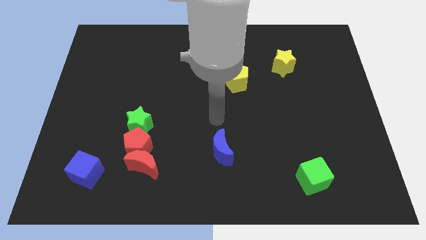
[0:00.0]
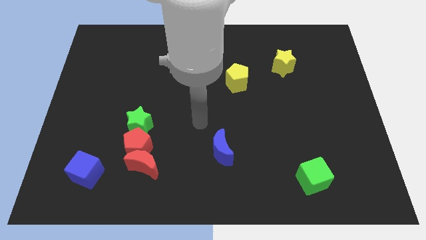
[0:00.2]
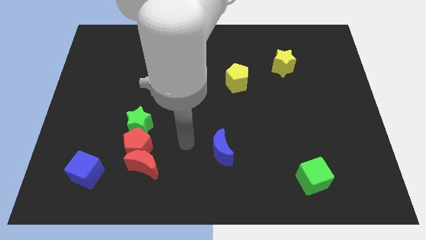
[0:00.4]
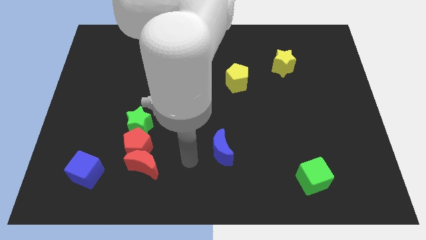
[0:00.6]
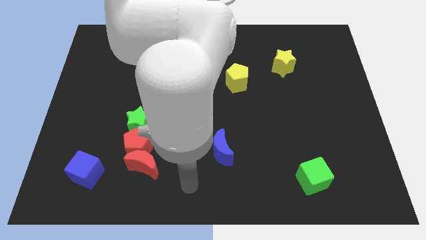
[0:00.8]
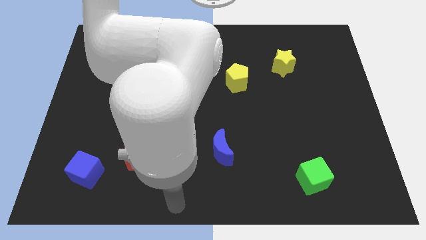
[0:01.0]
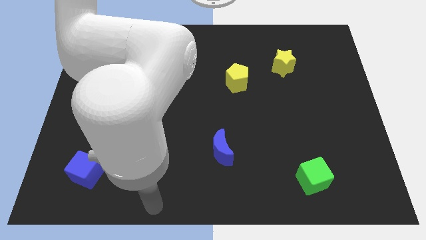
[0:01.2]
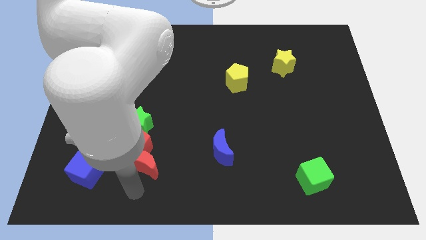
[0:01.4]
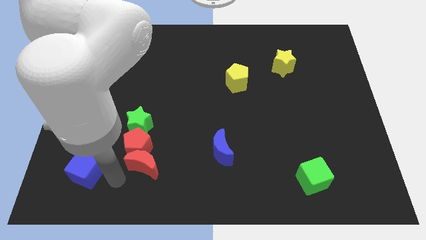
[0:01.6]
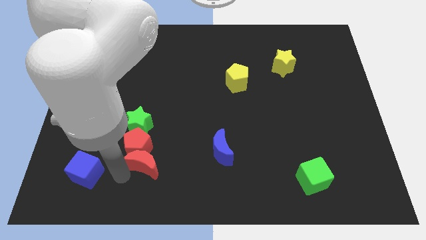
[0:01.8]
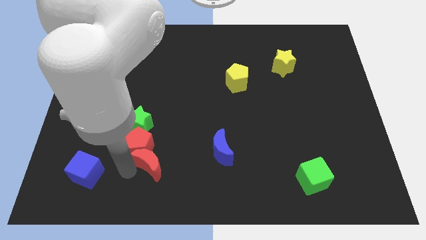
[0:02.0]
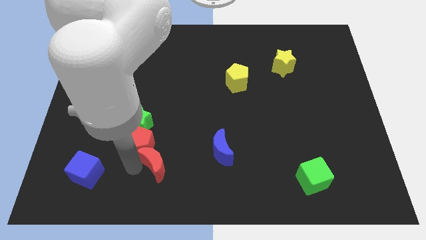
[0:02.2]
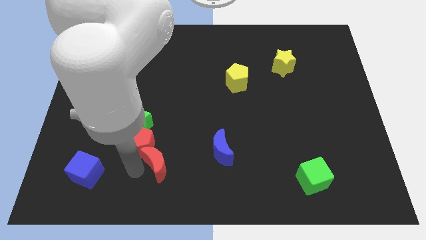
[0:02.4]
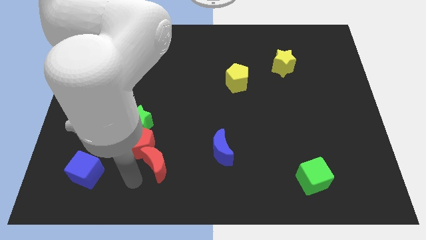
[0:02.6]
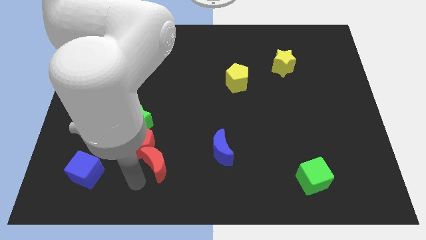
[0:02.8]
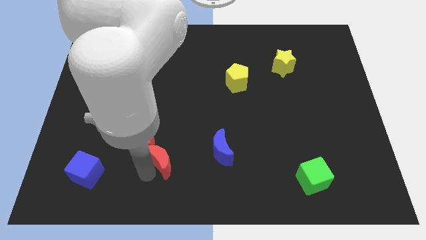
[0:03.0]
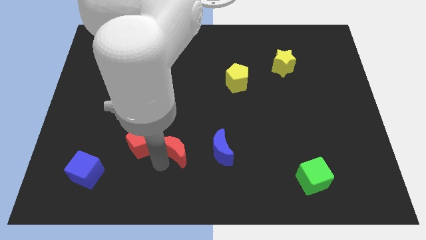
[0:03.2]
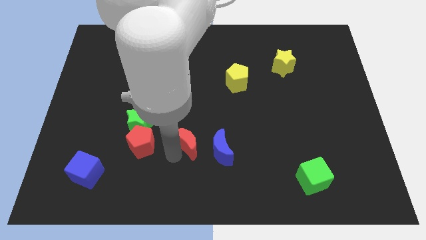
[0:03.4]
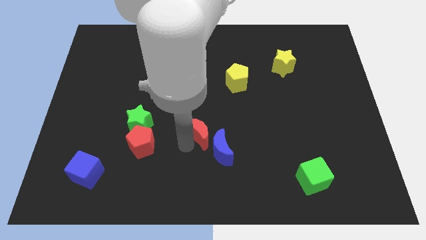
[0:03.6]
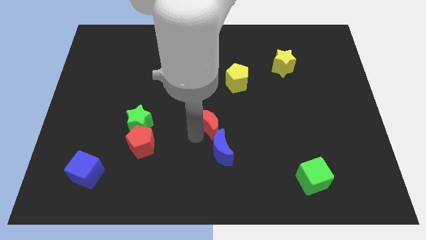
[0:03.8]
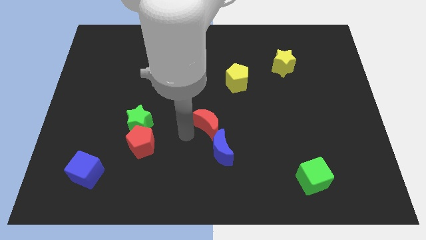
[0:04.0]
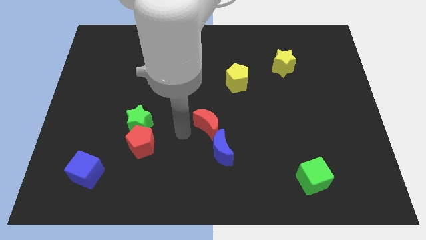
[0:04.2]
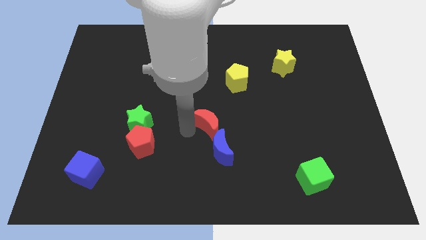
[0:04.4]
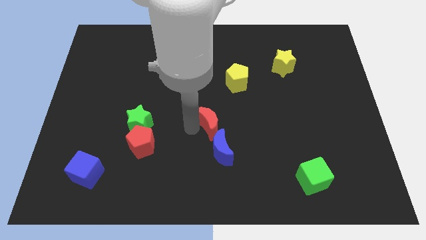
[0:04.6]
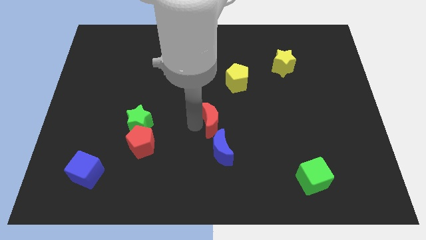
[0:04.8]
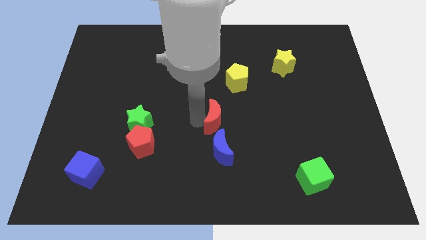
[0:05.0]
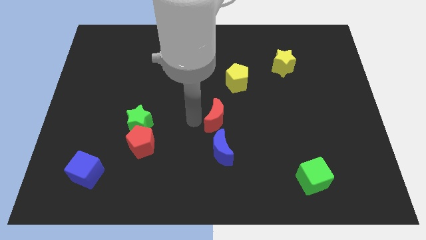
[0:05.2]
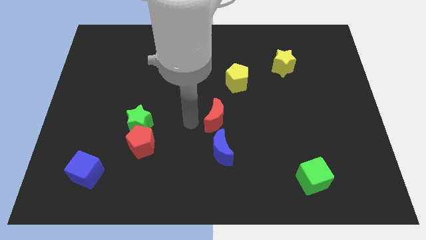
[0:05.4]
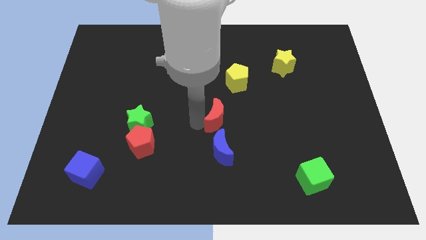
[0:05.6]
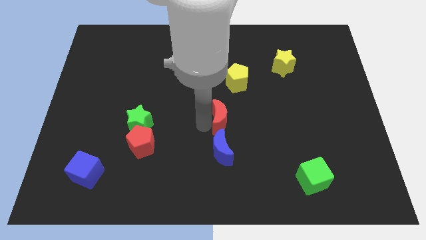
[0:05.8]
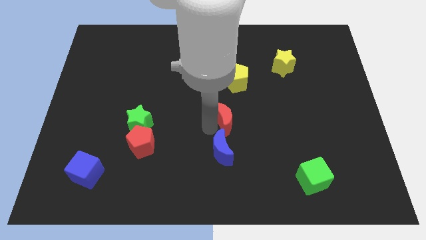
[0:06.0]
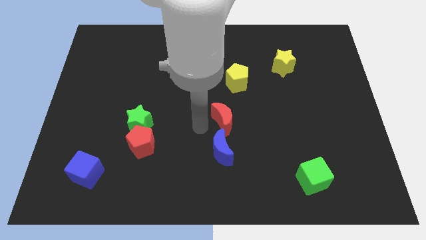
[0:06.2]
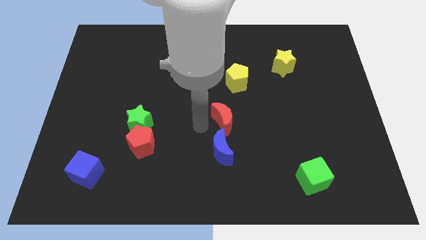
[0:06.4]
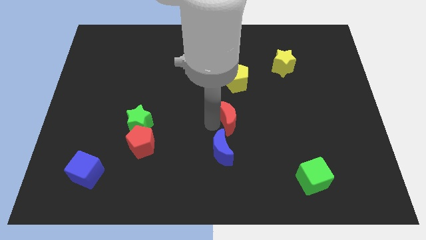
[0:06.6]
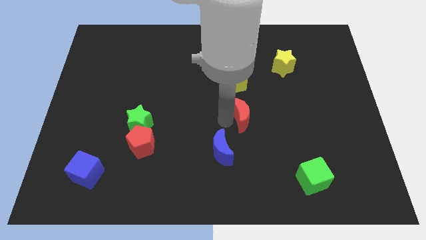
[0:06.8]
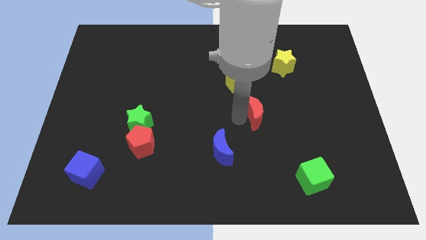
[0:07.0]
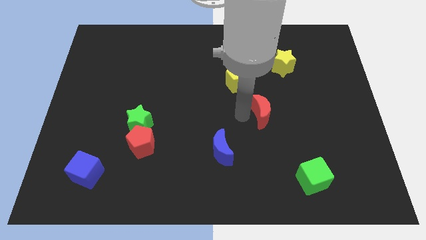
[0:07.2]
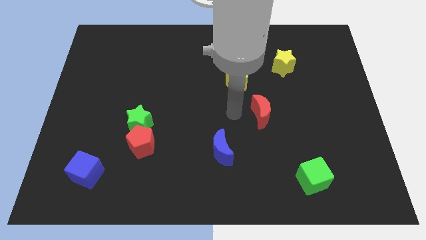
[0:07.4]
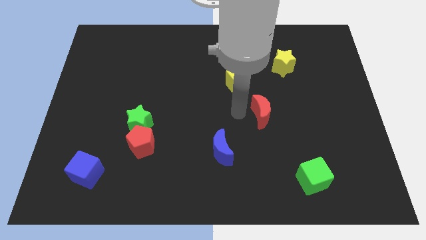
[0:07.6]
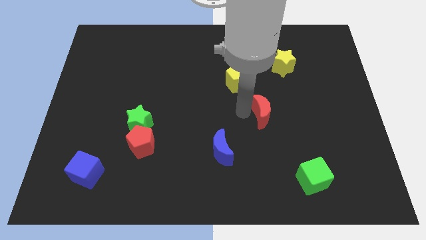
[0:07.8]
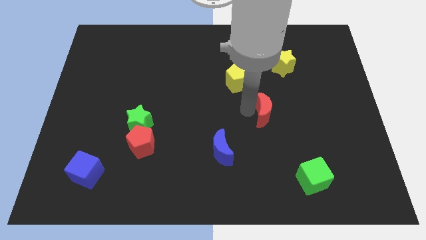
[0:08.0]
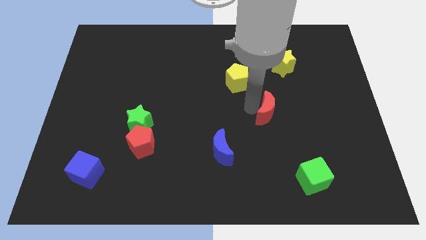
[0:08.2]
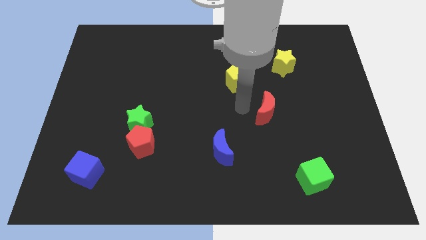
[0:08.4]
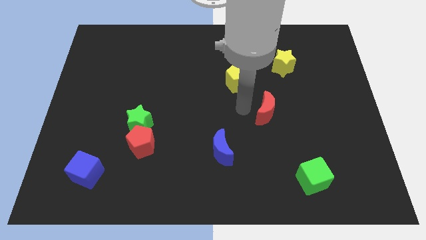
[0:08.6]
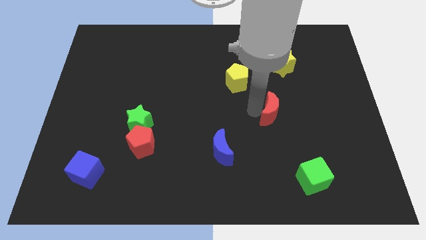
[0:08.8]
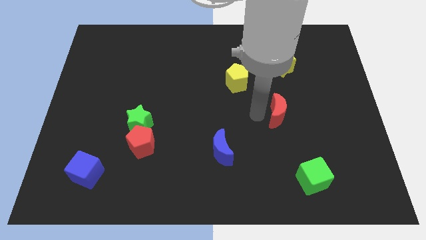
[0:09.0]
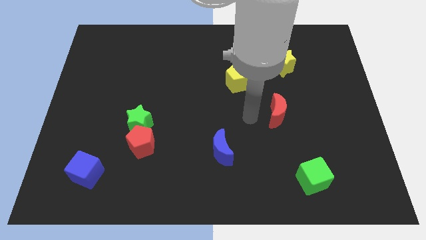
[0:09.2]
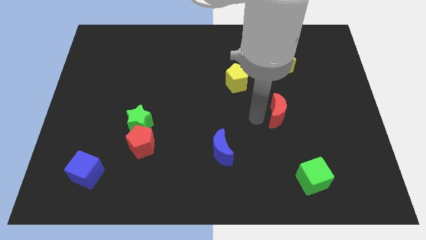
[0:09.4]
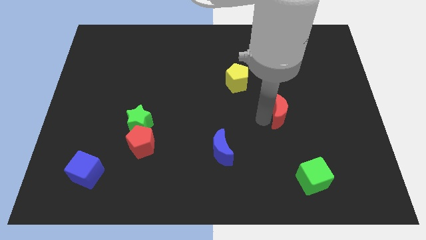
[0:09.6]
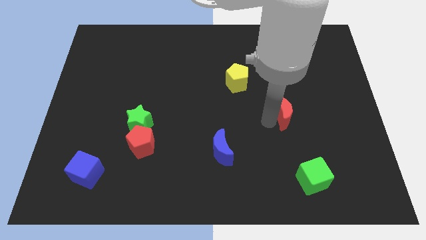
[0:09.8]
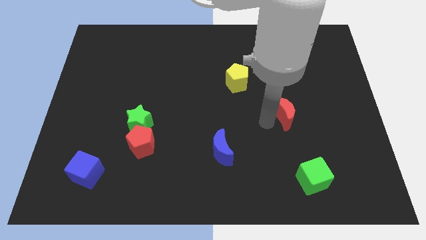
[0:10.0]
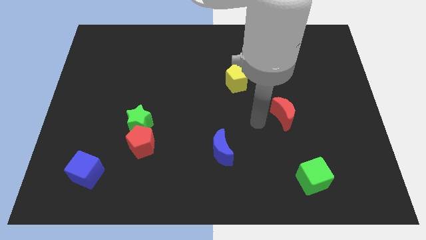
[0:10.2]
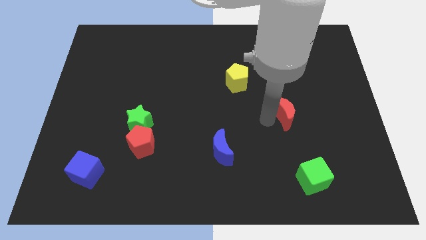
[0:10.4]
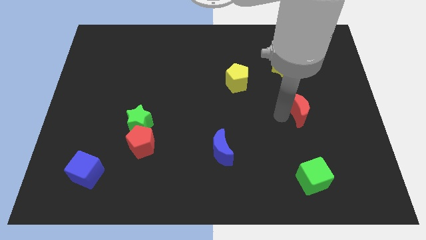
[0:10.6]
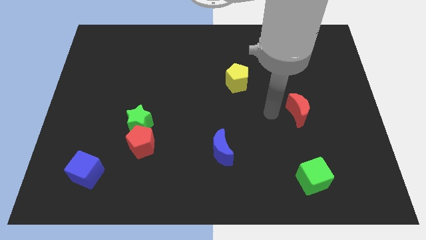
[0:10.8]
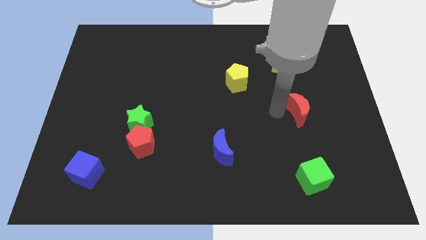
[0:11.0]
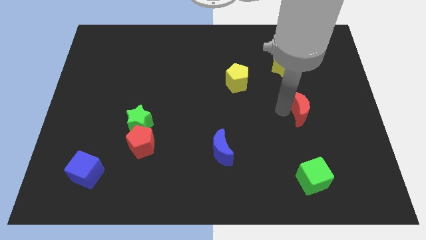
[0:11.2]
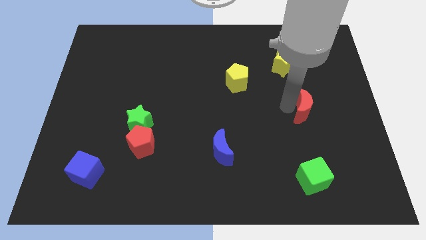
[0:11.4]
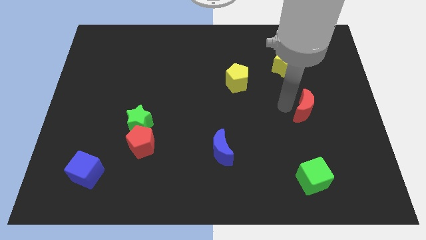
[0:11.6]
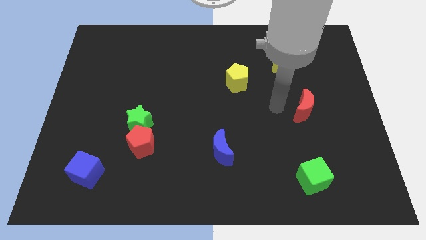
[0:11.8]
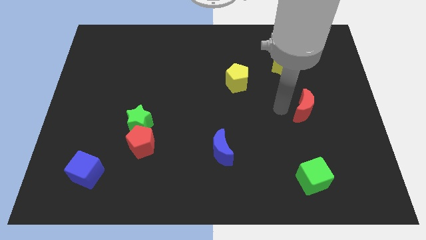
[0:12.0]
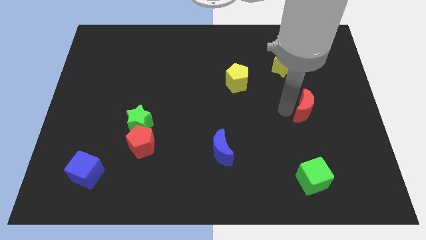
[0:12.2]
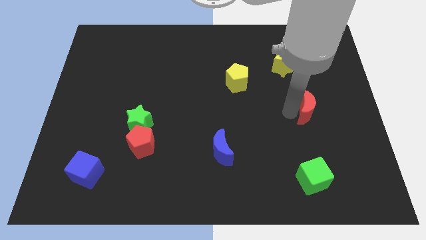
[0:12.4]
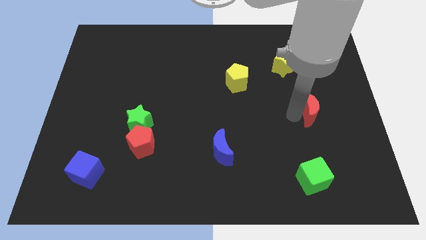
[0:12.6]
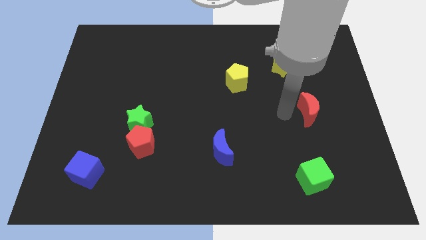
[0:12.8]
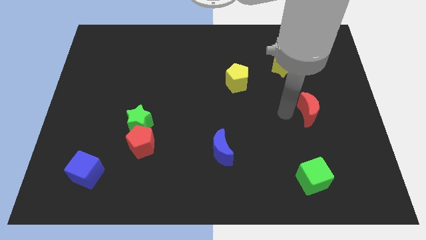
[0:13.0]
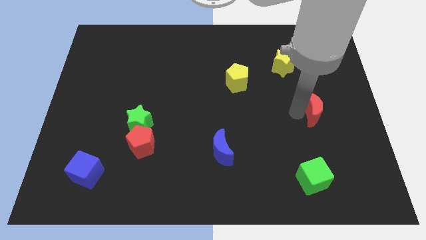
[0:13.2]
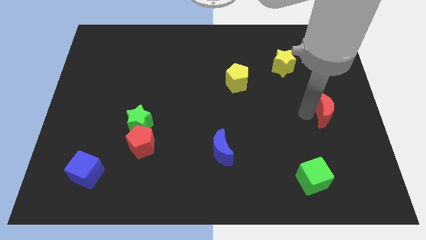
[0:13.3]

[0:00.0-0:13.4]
push the red moon to the right side of the board
